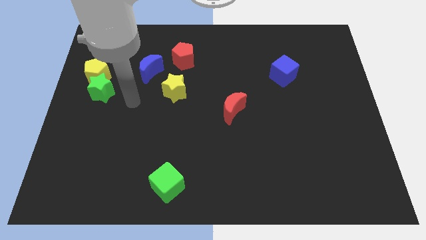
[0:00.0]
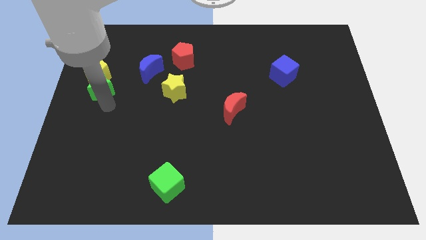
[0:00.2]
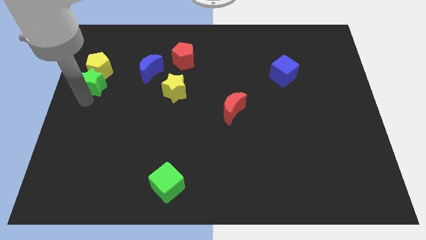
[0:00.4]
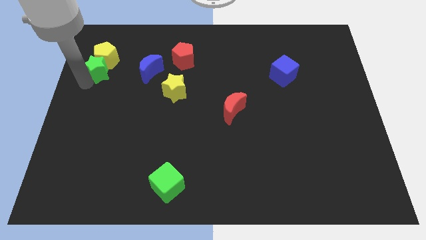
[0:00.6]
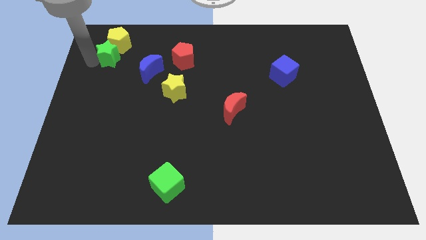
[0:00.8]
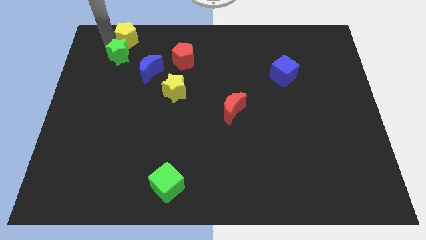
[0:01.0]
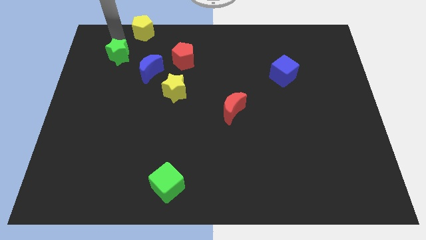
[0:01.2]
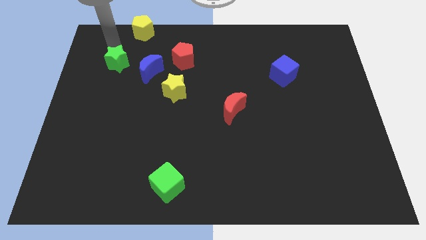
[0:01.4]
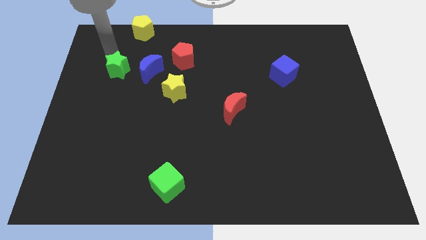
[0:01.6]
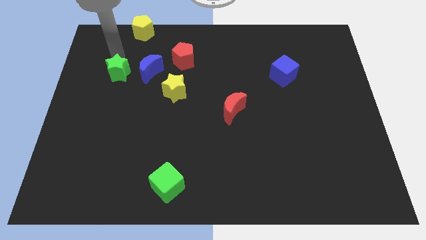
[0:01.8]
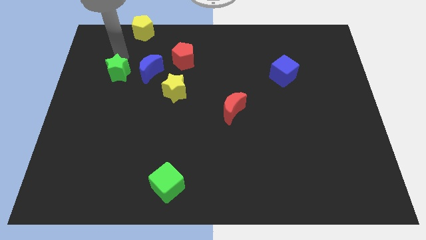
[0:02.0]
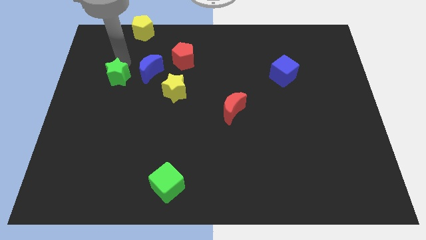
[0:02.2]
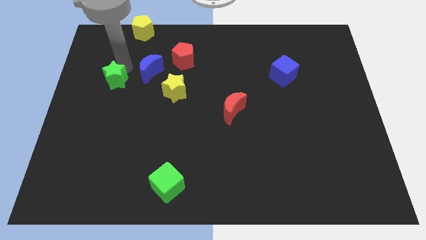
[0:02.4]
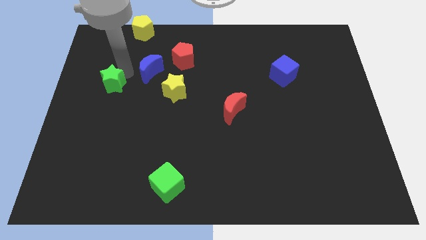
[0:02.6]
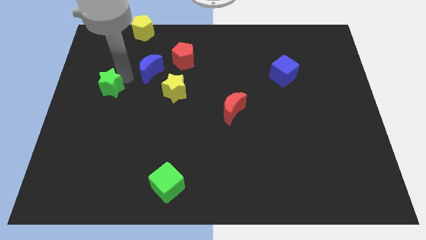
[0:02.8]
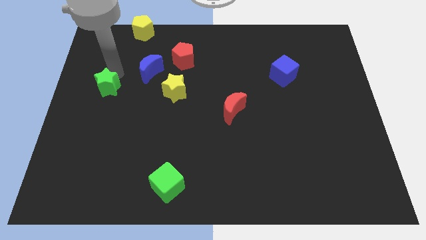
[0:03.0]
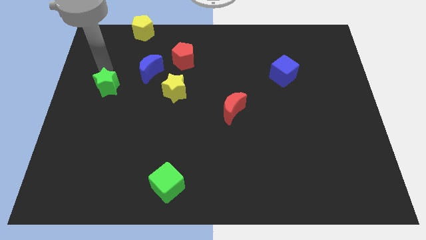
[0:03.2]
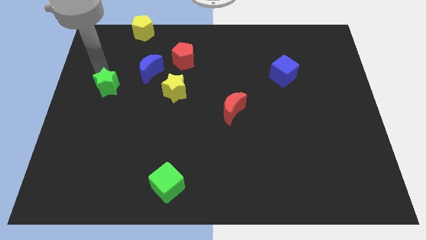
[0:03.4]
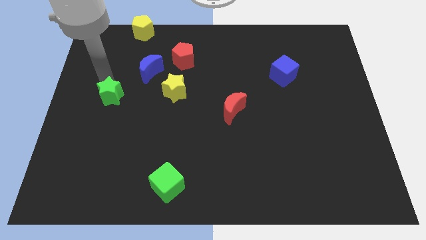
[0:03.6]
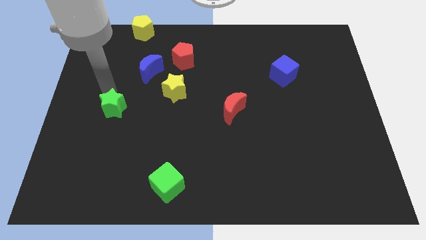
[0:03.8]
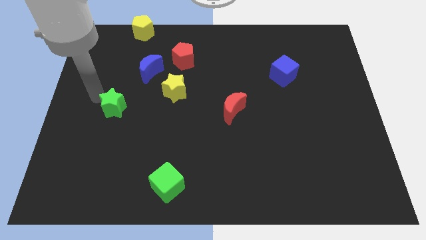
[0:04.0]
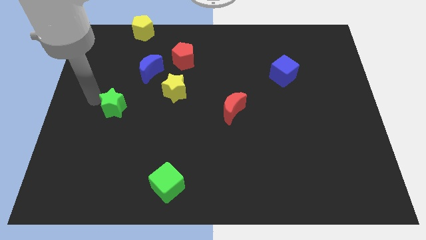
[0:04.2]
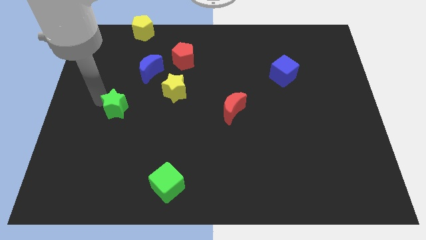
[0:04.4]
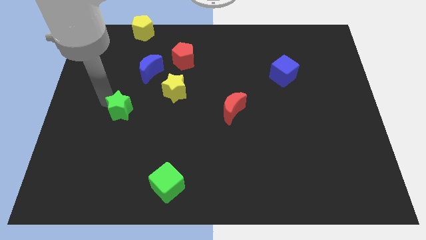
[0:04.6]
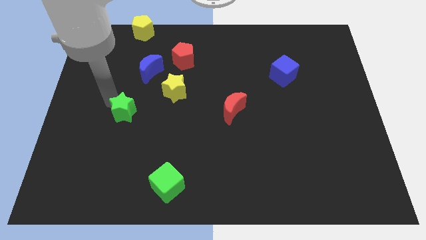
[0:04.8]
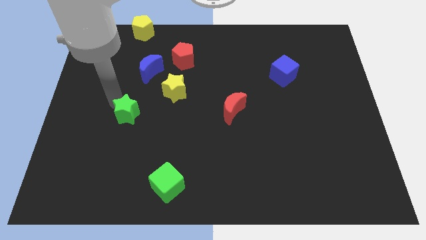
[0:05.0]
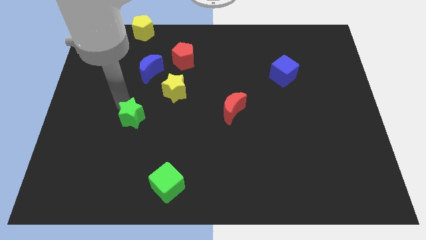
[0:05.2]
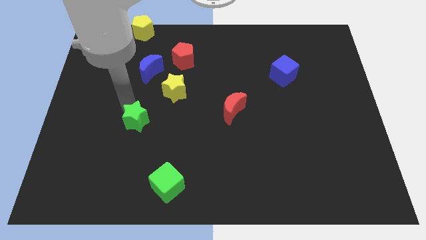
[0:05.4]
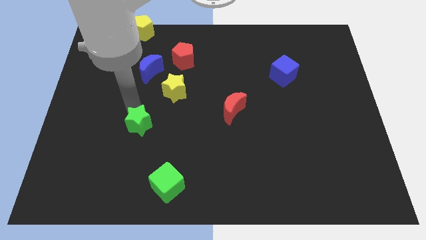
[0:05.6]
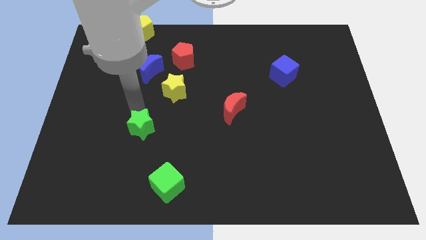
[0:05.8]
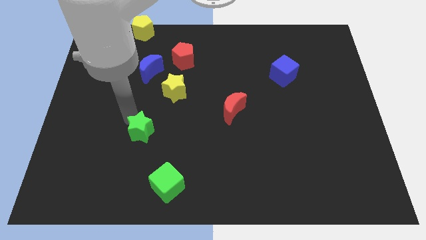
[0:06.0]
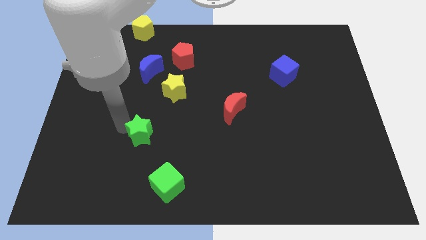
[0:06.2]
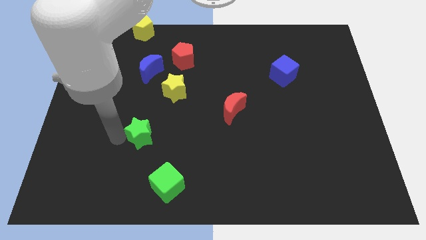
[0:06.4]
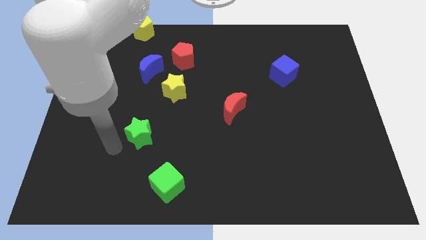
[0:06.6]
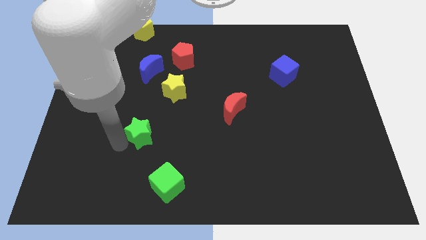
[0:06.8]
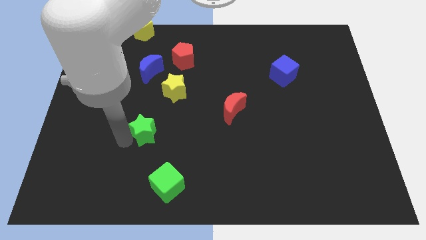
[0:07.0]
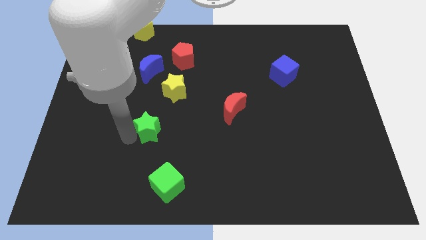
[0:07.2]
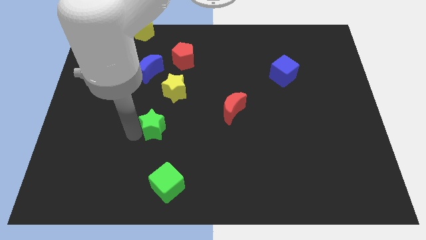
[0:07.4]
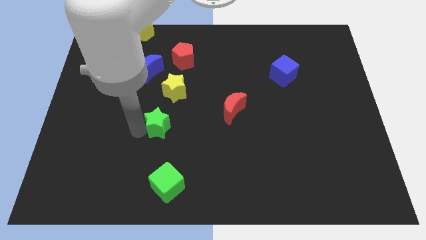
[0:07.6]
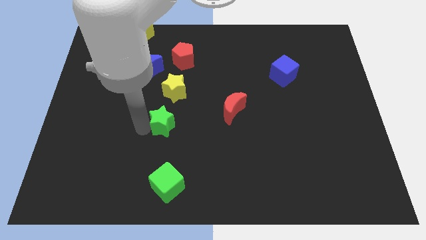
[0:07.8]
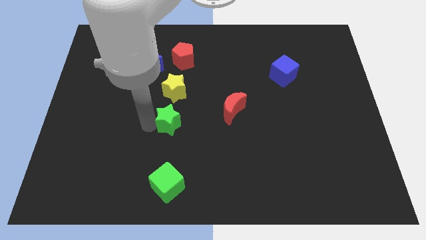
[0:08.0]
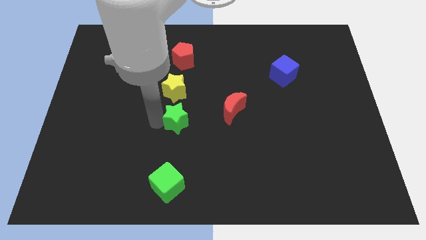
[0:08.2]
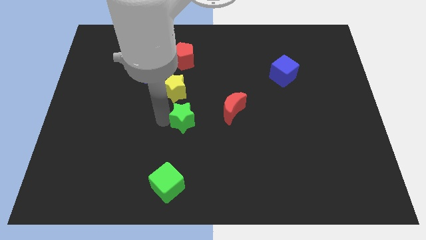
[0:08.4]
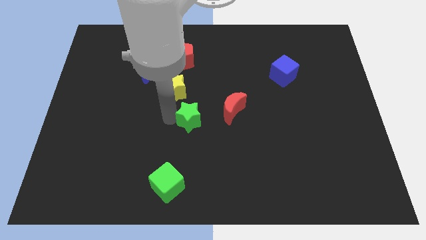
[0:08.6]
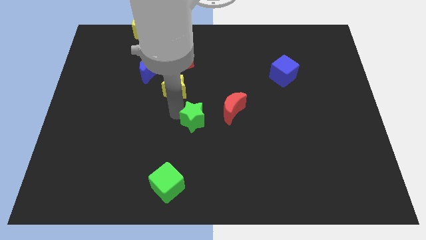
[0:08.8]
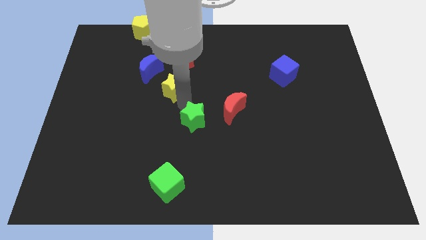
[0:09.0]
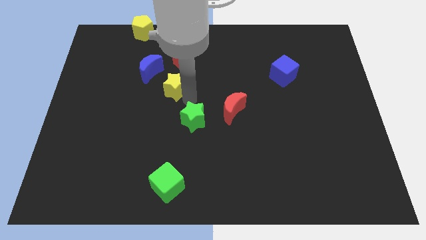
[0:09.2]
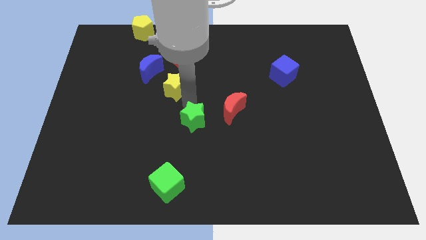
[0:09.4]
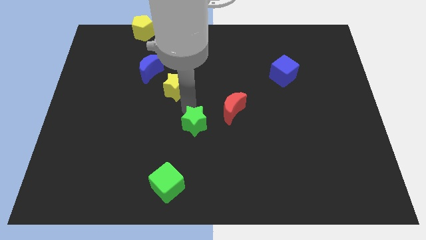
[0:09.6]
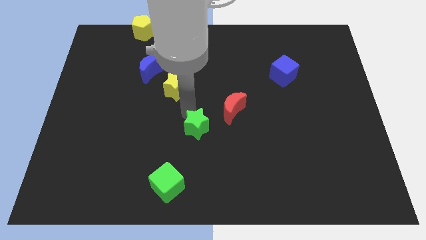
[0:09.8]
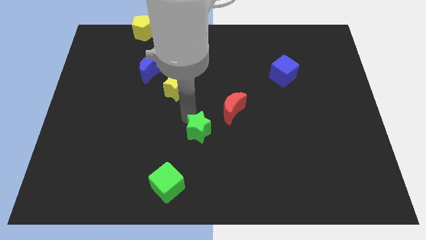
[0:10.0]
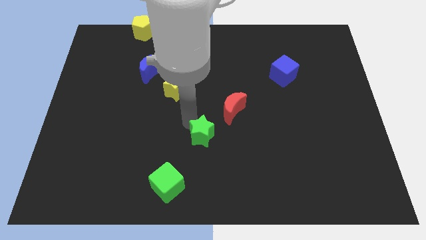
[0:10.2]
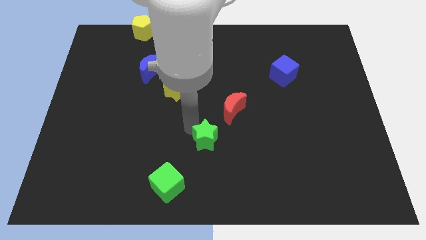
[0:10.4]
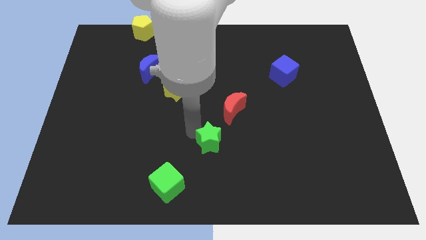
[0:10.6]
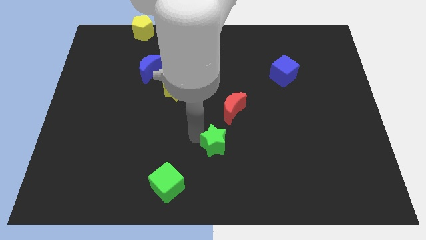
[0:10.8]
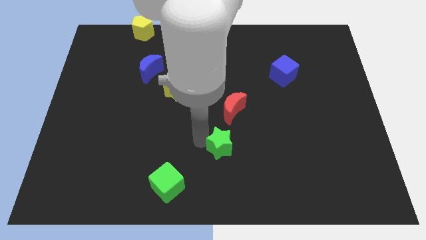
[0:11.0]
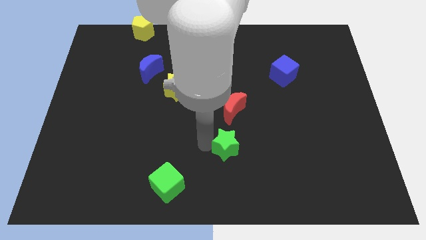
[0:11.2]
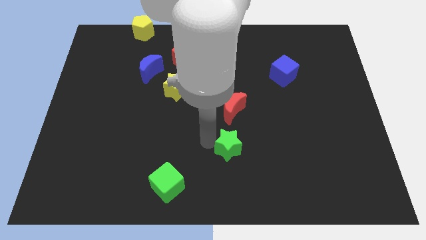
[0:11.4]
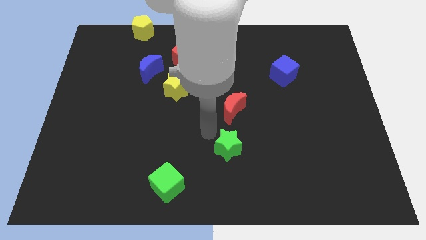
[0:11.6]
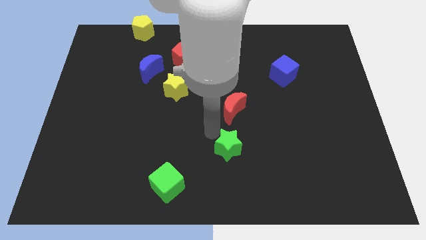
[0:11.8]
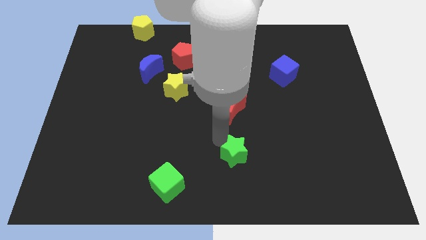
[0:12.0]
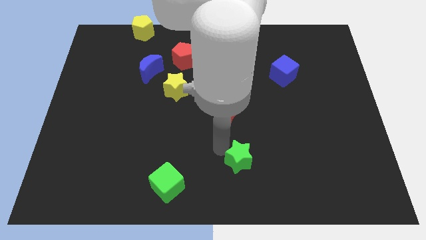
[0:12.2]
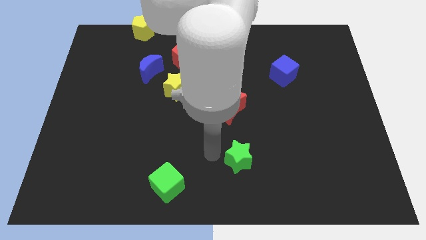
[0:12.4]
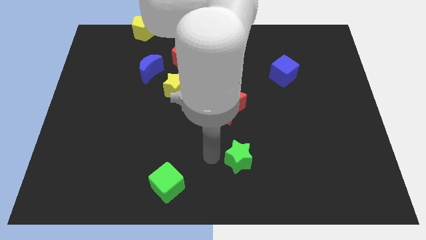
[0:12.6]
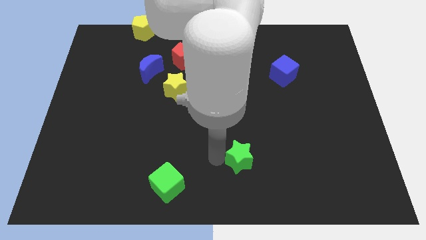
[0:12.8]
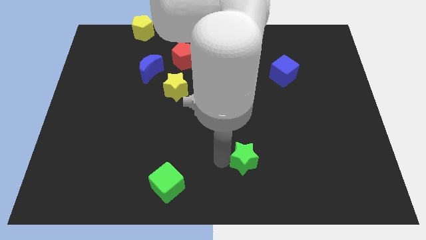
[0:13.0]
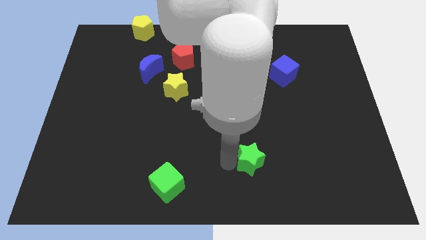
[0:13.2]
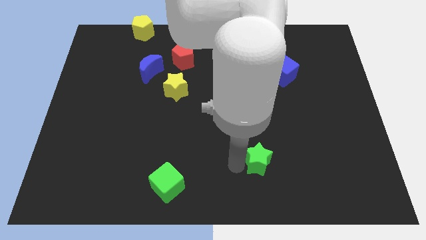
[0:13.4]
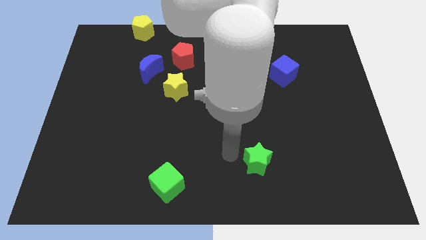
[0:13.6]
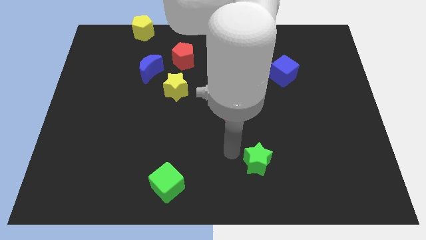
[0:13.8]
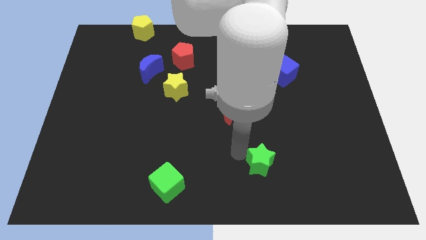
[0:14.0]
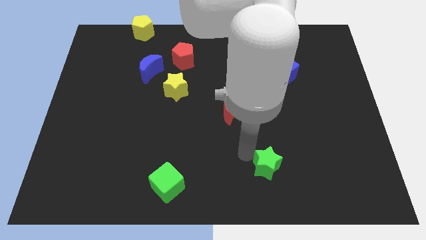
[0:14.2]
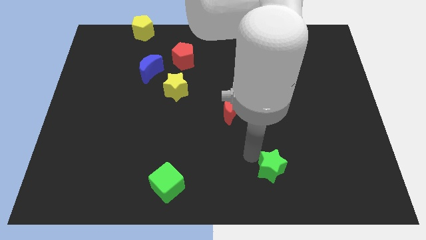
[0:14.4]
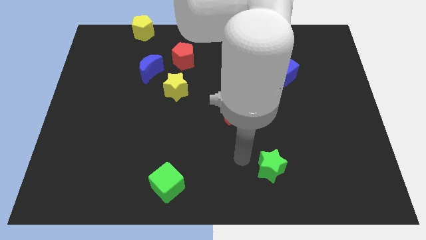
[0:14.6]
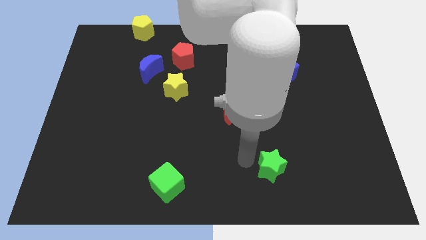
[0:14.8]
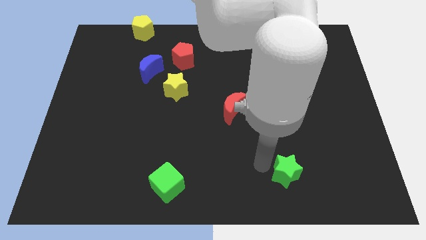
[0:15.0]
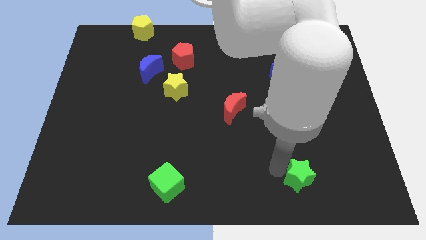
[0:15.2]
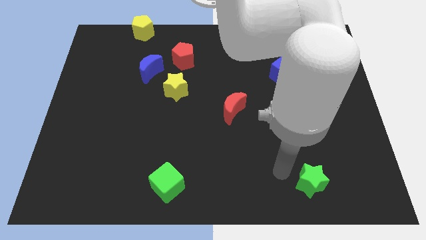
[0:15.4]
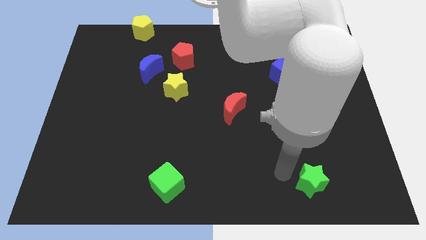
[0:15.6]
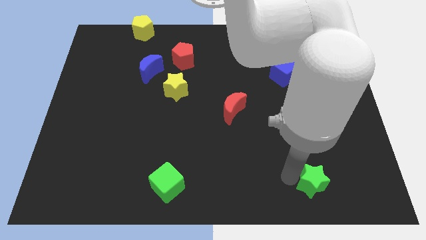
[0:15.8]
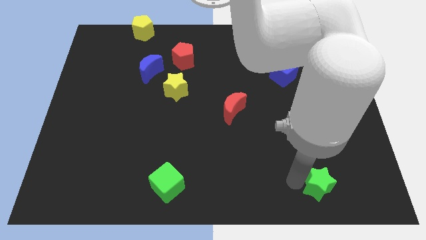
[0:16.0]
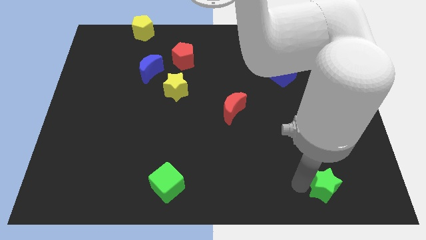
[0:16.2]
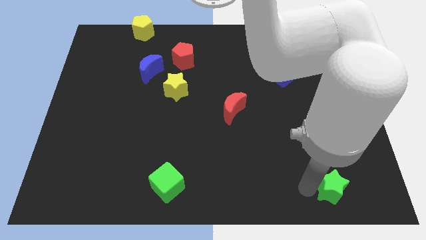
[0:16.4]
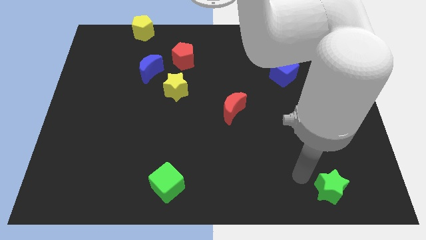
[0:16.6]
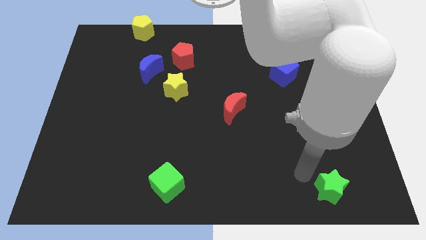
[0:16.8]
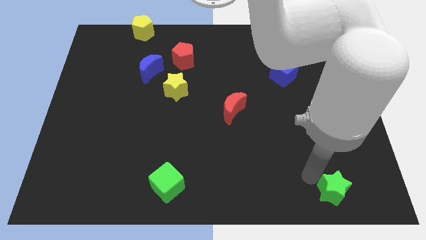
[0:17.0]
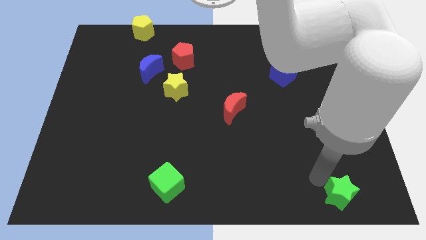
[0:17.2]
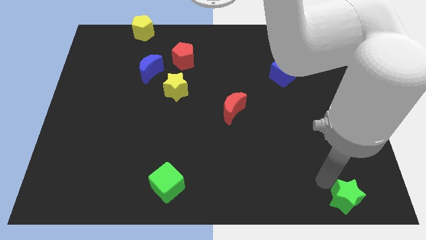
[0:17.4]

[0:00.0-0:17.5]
move the green star to the bottom right
